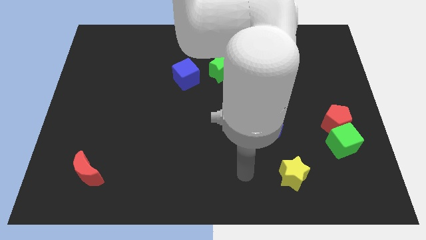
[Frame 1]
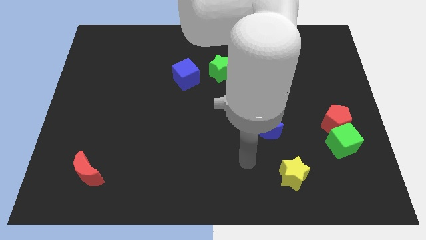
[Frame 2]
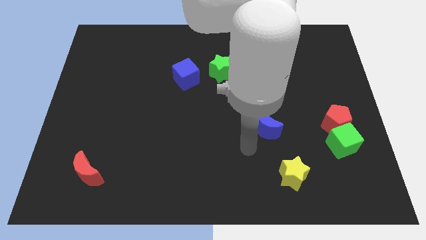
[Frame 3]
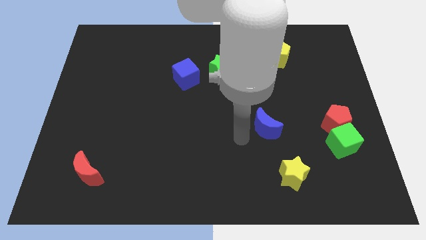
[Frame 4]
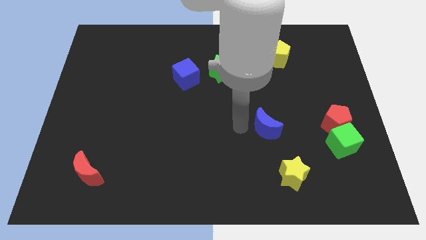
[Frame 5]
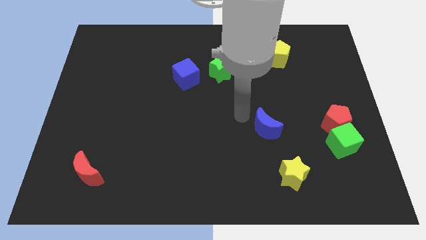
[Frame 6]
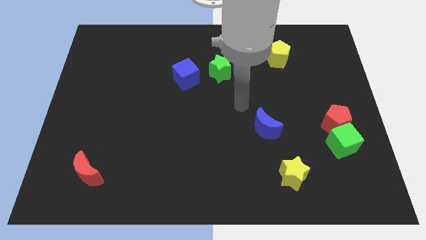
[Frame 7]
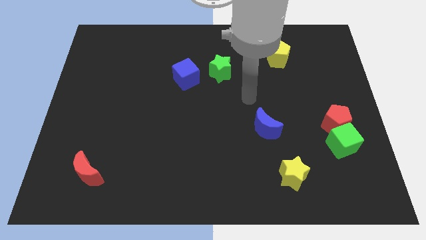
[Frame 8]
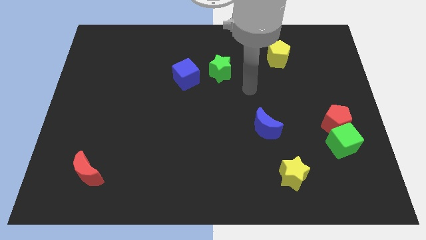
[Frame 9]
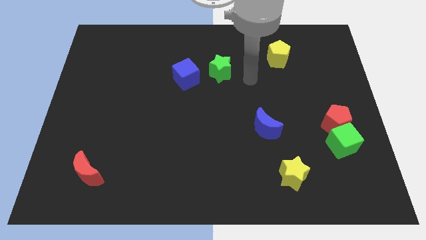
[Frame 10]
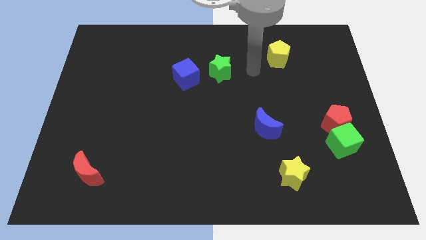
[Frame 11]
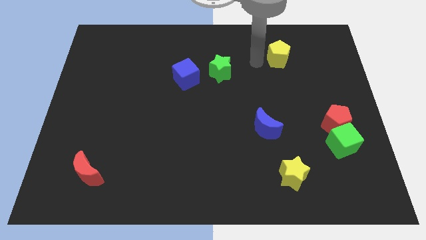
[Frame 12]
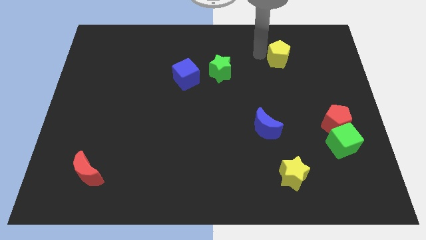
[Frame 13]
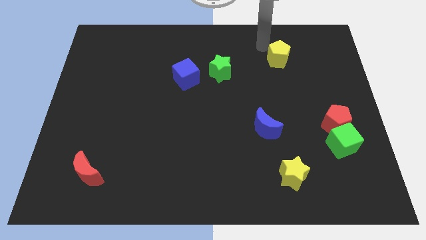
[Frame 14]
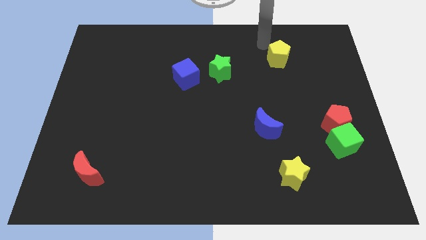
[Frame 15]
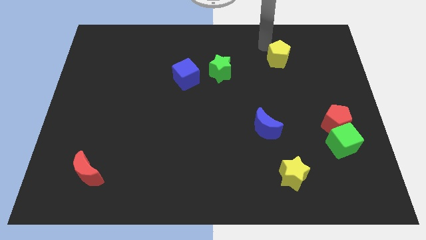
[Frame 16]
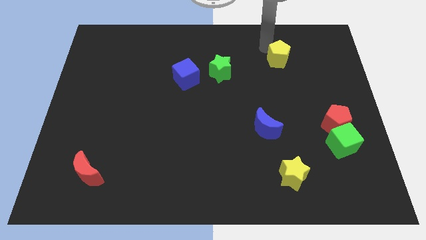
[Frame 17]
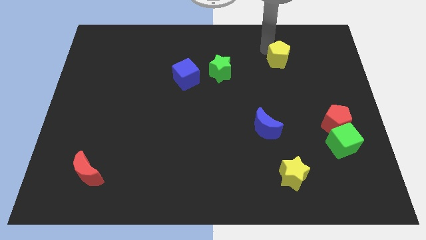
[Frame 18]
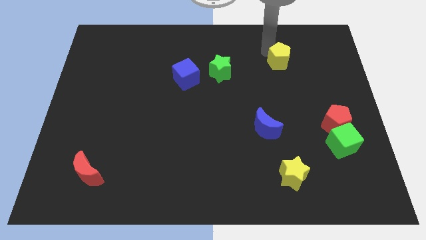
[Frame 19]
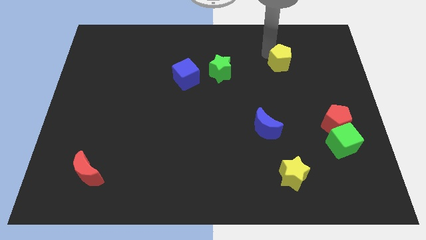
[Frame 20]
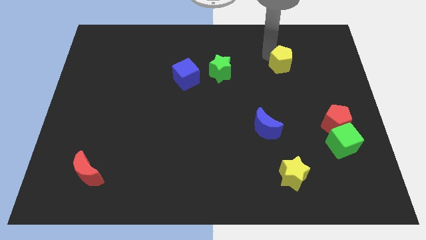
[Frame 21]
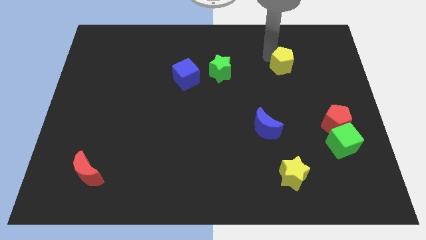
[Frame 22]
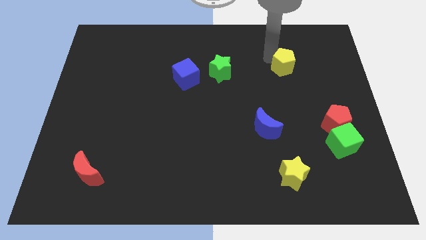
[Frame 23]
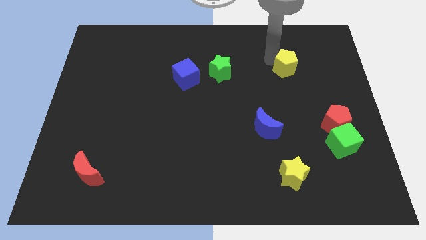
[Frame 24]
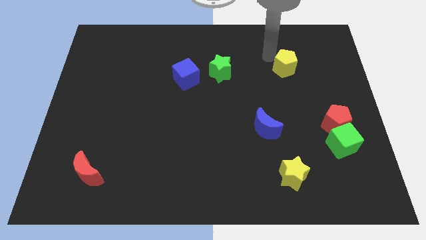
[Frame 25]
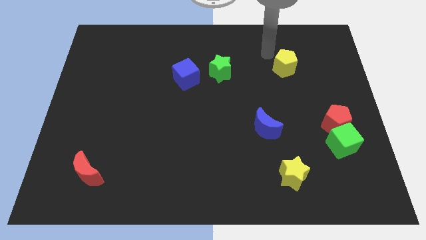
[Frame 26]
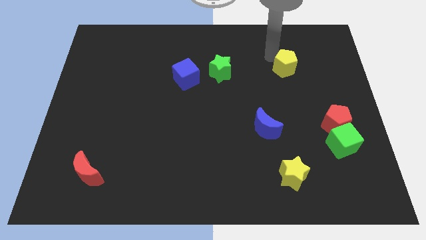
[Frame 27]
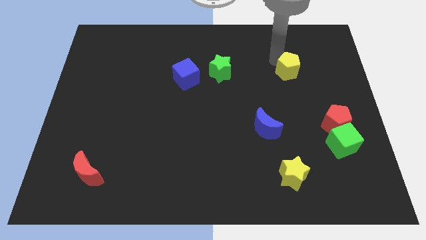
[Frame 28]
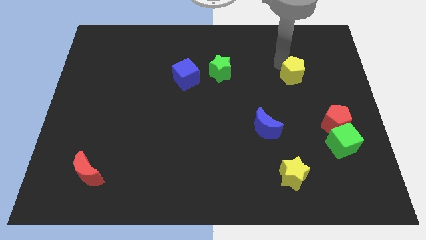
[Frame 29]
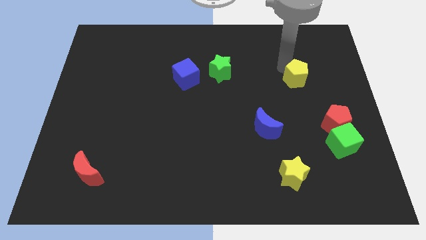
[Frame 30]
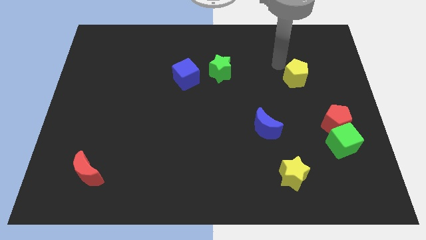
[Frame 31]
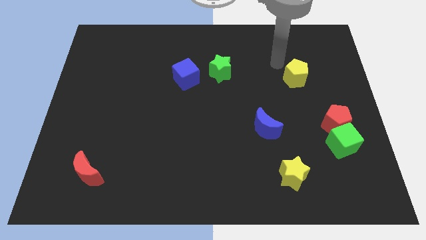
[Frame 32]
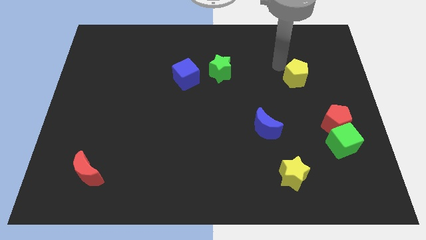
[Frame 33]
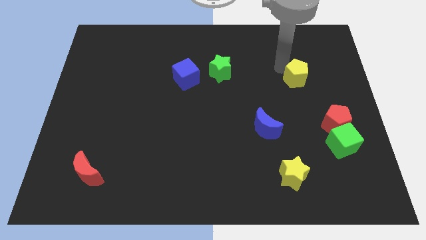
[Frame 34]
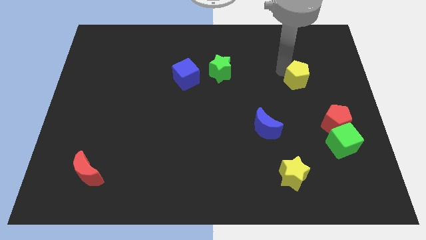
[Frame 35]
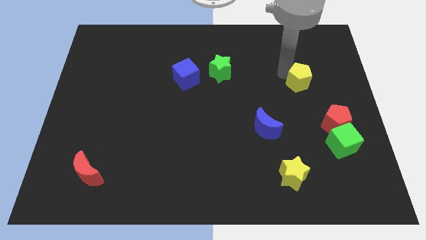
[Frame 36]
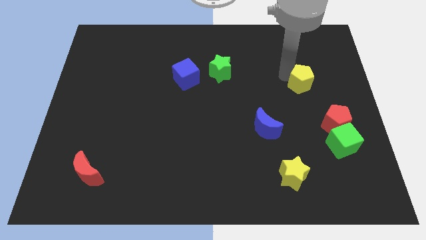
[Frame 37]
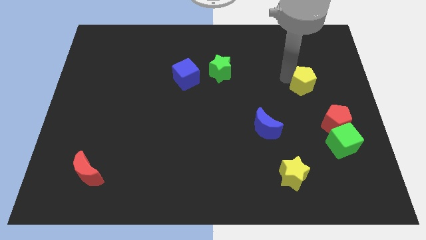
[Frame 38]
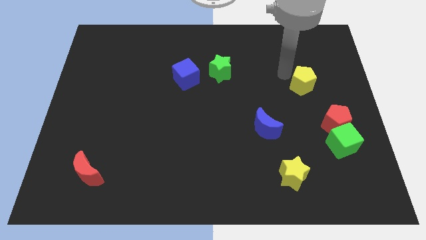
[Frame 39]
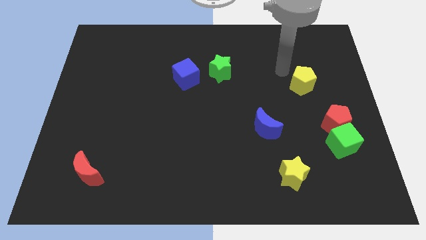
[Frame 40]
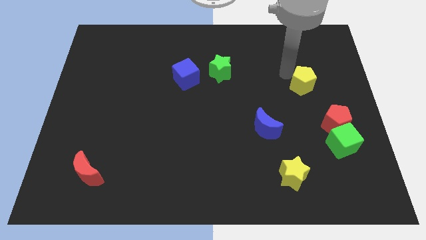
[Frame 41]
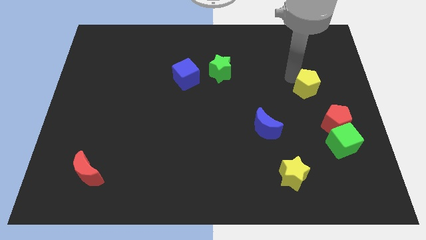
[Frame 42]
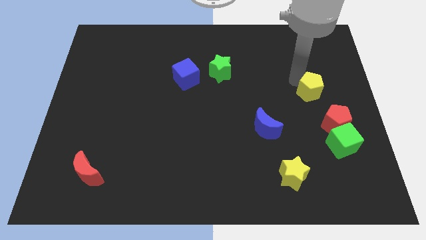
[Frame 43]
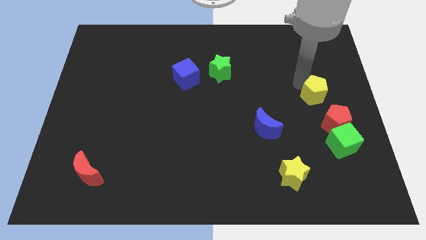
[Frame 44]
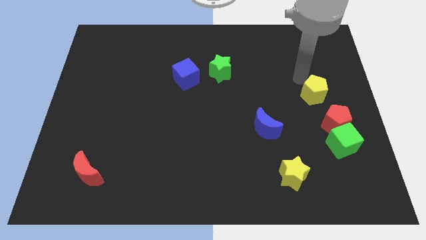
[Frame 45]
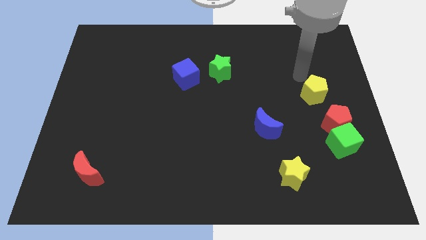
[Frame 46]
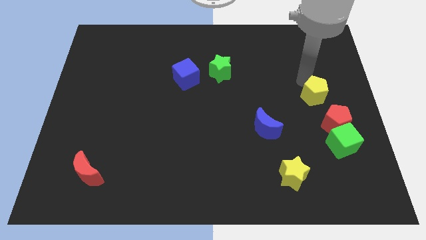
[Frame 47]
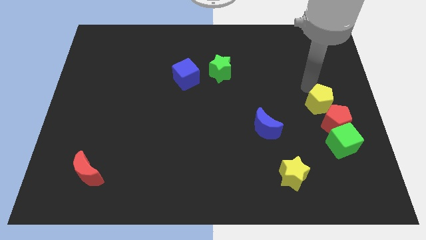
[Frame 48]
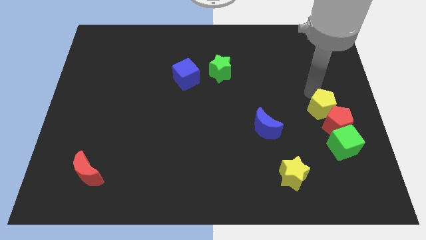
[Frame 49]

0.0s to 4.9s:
put the yellow pentagon close to the red pentagon

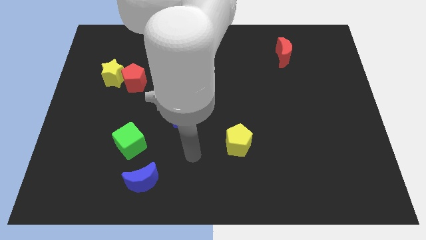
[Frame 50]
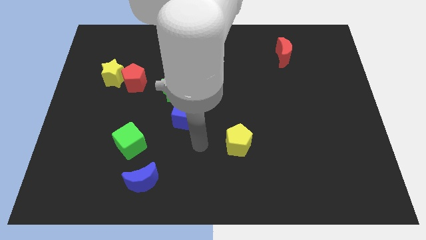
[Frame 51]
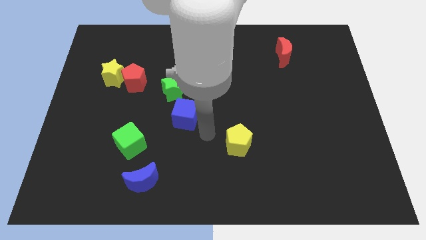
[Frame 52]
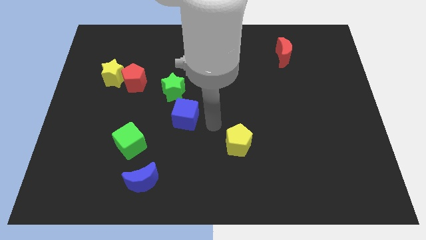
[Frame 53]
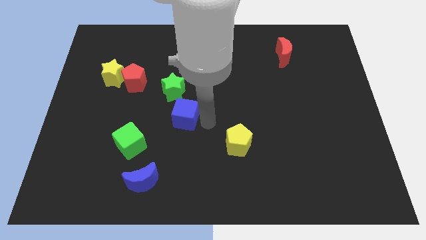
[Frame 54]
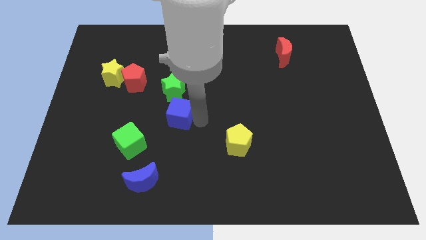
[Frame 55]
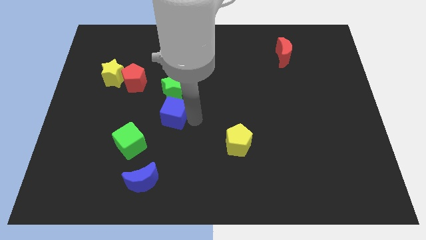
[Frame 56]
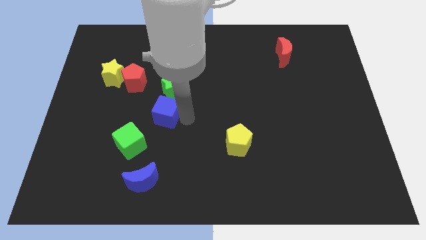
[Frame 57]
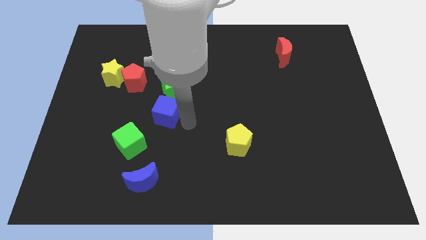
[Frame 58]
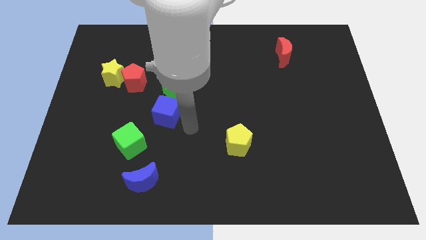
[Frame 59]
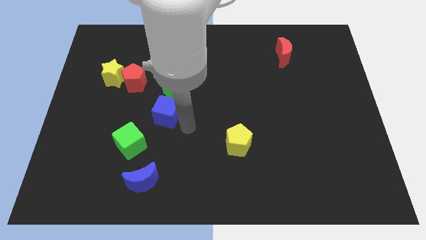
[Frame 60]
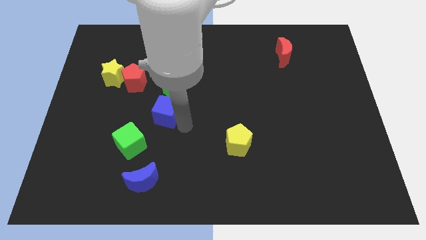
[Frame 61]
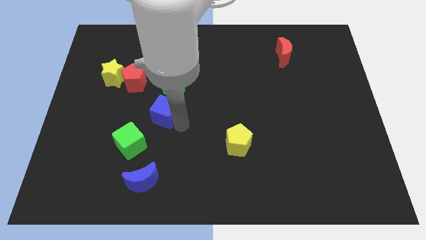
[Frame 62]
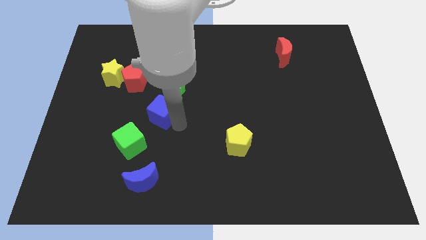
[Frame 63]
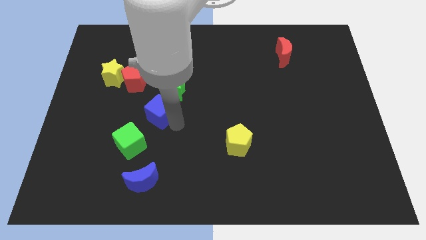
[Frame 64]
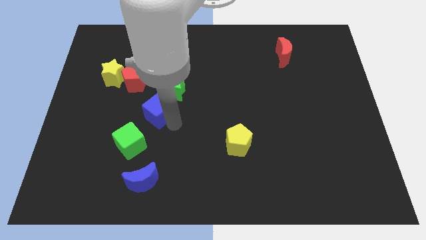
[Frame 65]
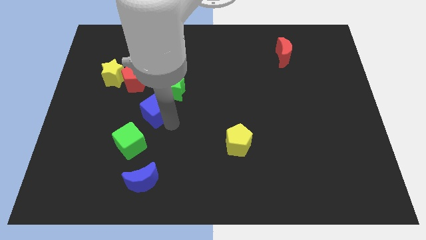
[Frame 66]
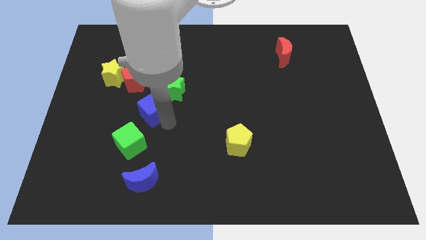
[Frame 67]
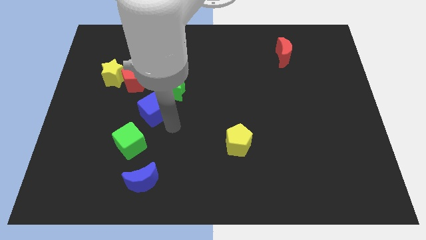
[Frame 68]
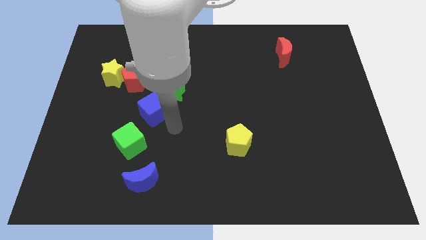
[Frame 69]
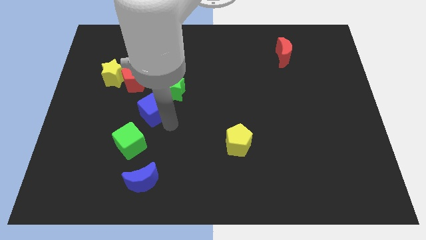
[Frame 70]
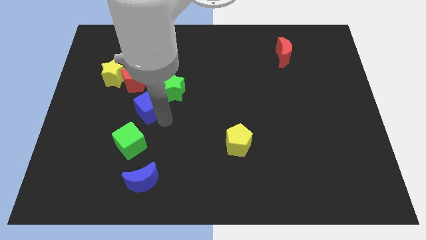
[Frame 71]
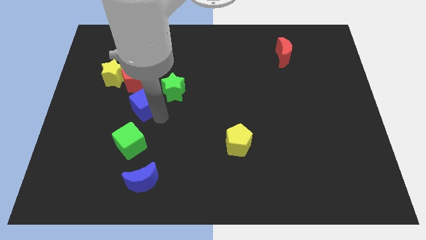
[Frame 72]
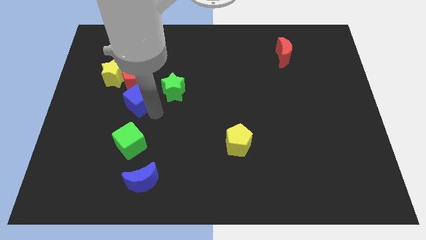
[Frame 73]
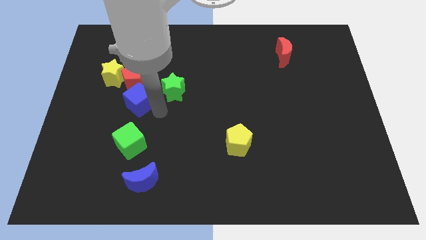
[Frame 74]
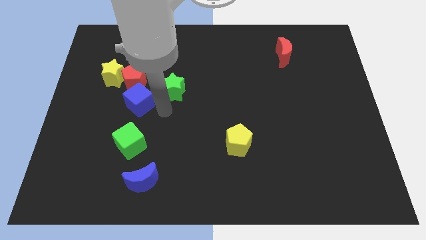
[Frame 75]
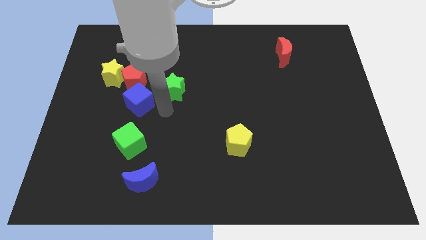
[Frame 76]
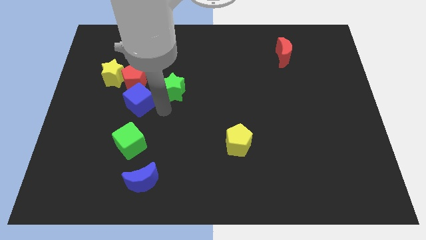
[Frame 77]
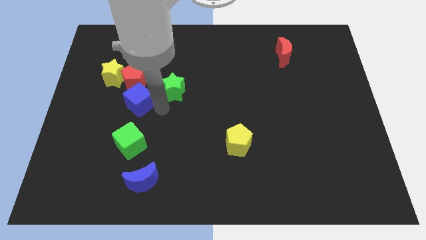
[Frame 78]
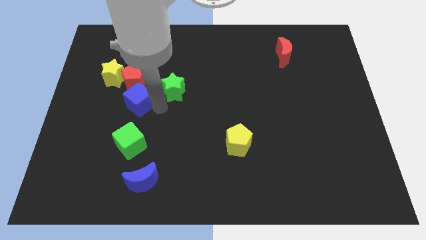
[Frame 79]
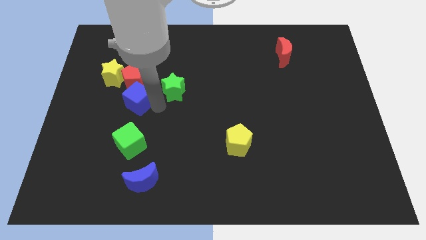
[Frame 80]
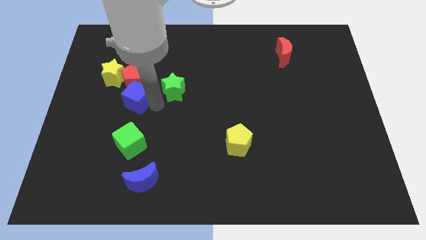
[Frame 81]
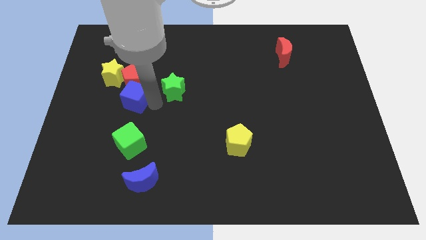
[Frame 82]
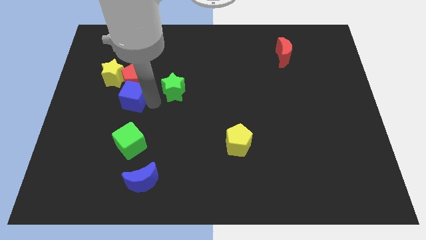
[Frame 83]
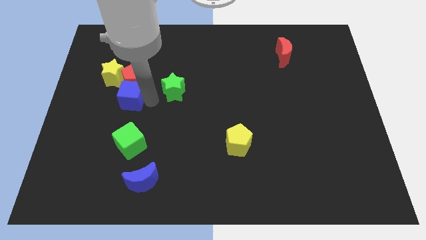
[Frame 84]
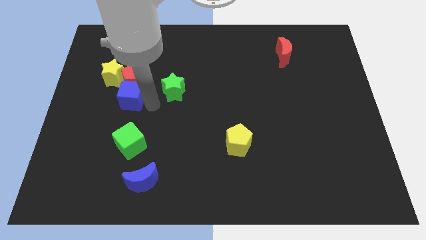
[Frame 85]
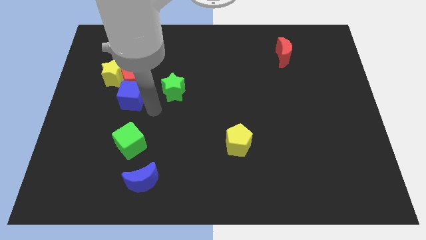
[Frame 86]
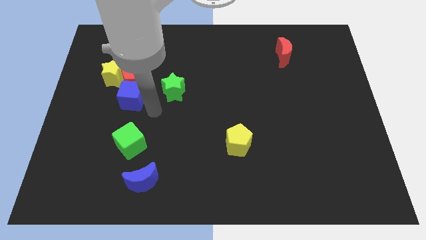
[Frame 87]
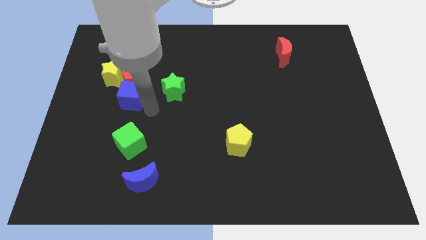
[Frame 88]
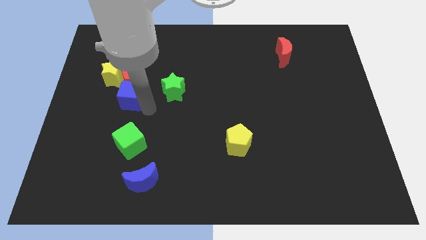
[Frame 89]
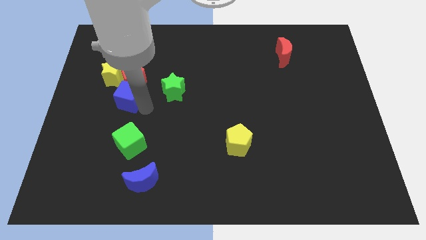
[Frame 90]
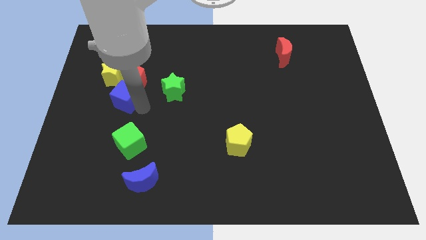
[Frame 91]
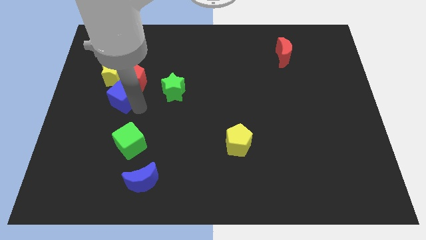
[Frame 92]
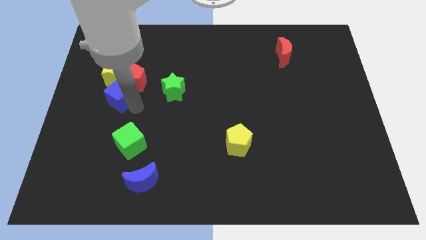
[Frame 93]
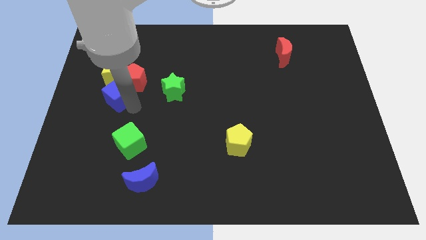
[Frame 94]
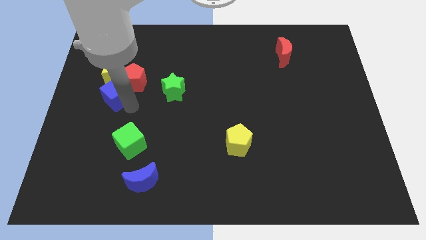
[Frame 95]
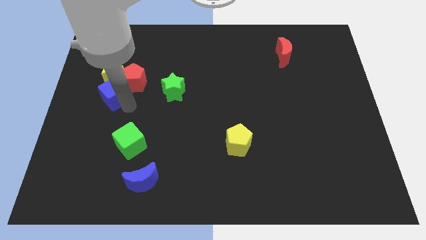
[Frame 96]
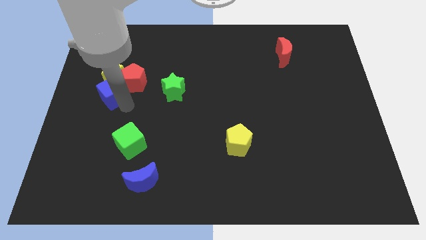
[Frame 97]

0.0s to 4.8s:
push the blue cube next to the yellow star
